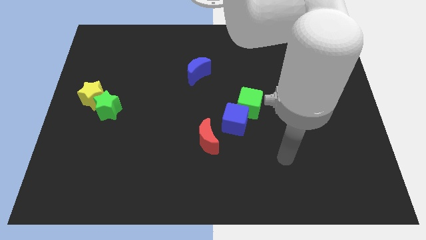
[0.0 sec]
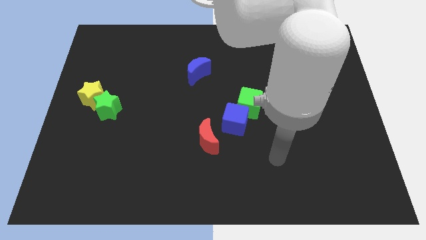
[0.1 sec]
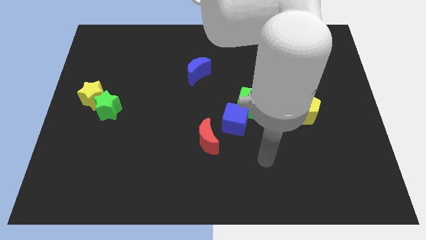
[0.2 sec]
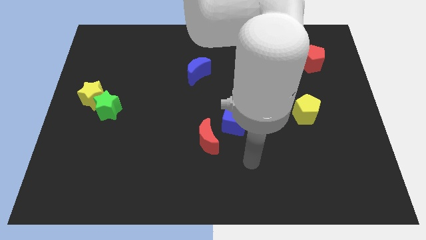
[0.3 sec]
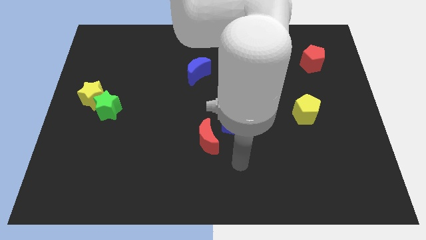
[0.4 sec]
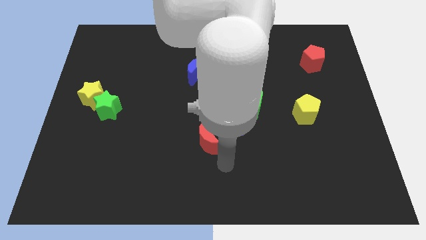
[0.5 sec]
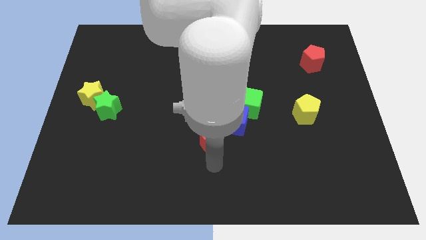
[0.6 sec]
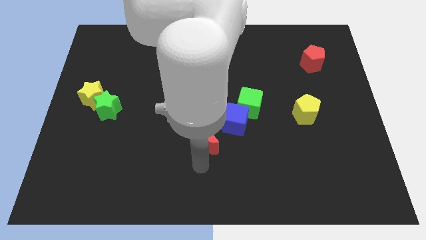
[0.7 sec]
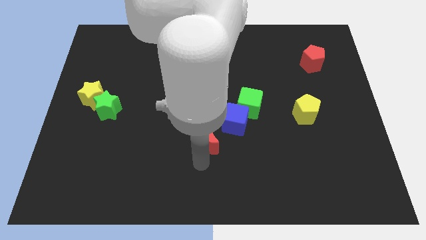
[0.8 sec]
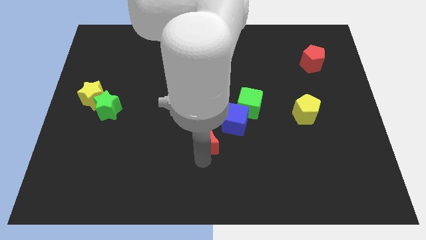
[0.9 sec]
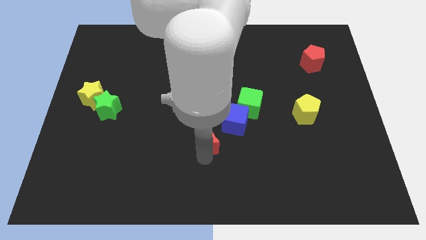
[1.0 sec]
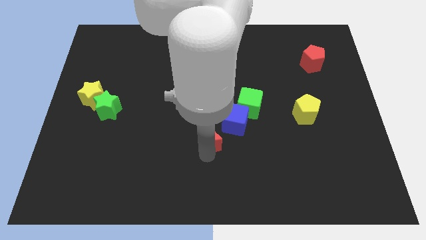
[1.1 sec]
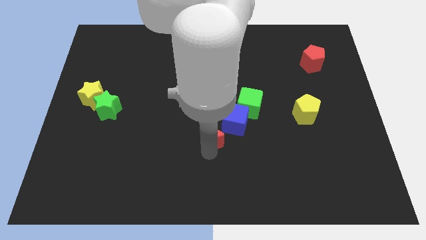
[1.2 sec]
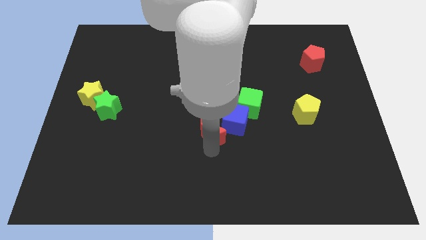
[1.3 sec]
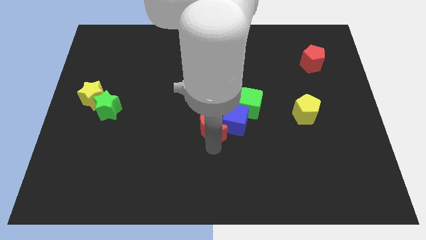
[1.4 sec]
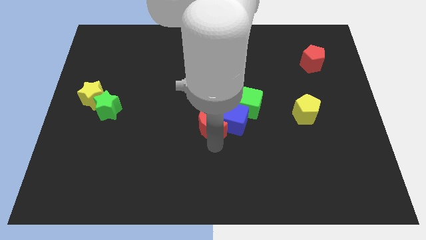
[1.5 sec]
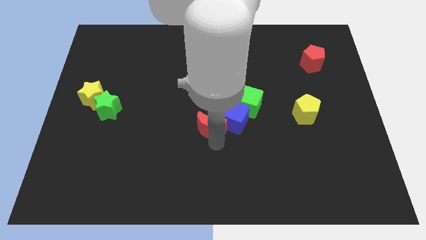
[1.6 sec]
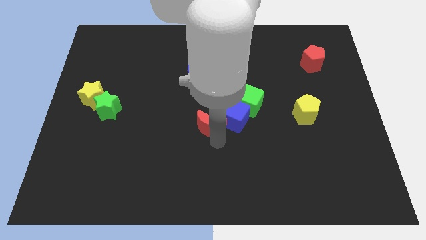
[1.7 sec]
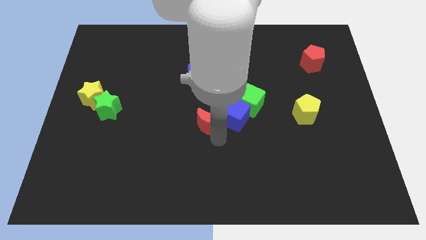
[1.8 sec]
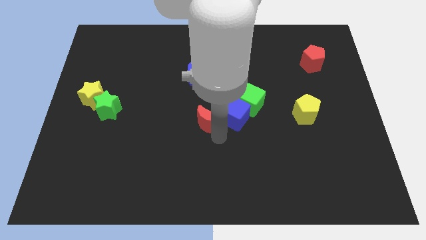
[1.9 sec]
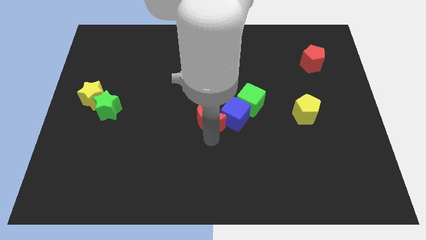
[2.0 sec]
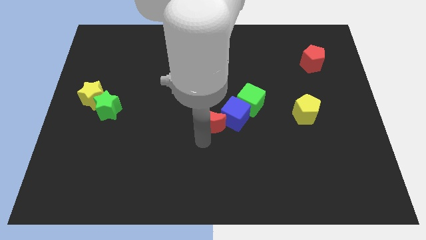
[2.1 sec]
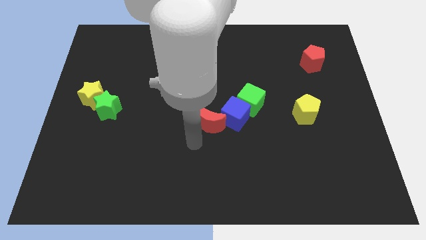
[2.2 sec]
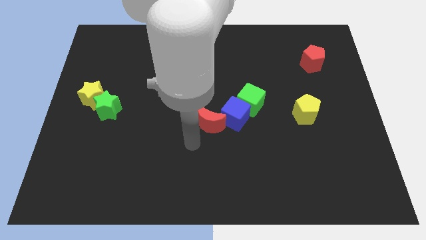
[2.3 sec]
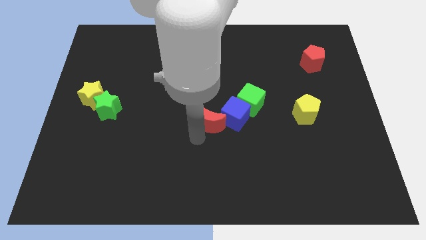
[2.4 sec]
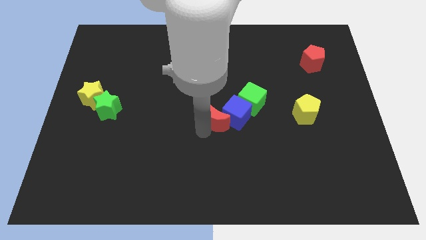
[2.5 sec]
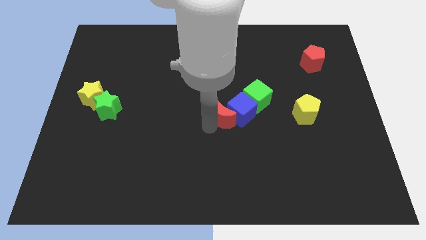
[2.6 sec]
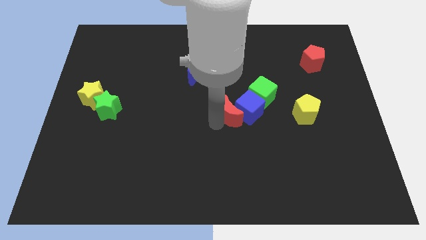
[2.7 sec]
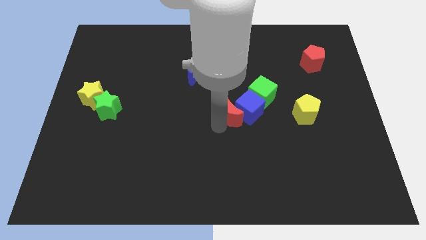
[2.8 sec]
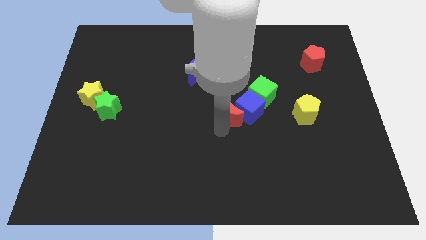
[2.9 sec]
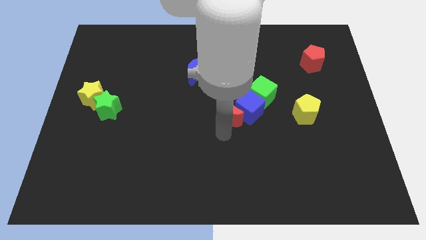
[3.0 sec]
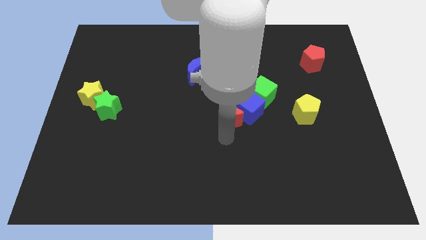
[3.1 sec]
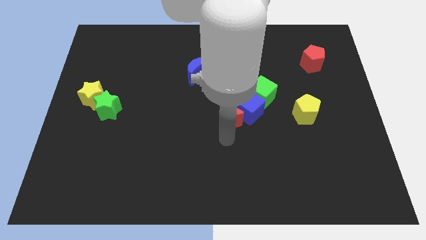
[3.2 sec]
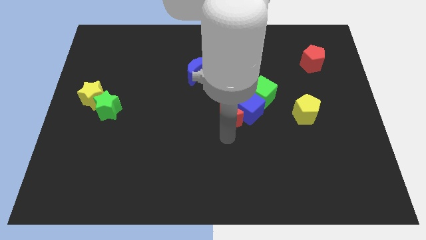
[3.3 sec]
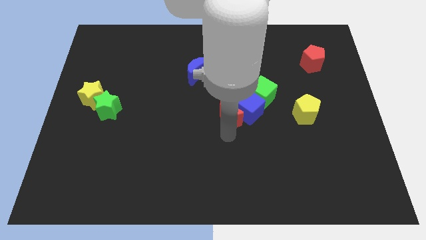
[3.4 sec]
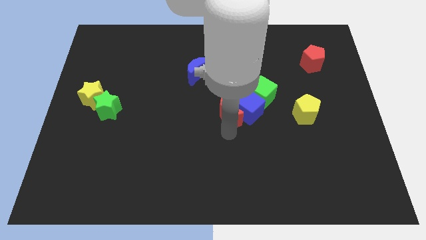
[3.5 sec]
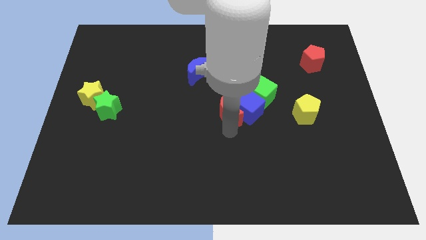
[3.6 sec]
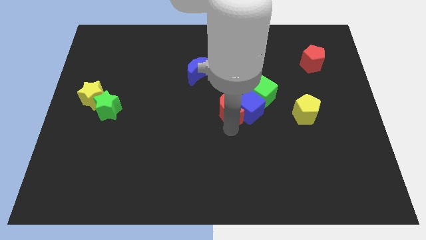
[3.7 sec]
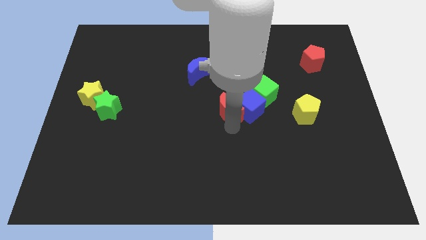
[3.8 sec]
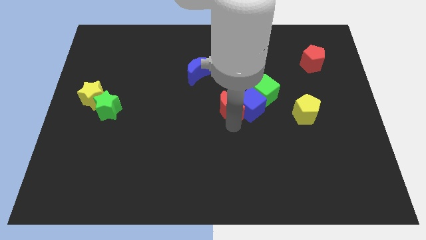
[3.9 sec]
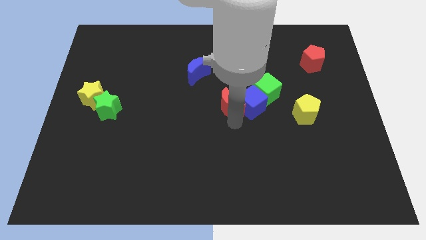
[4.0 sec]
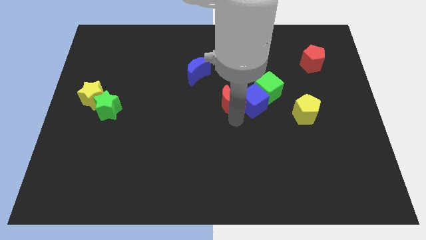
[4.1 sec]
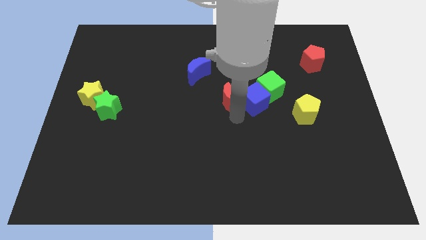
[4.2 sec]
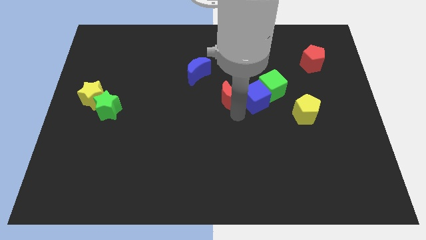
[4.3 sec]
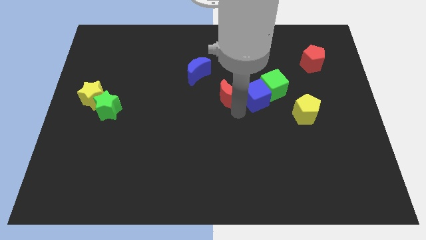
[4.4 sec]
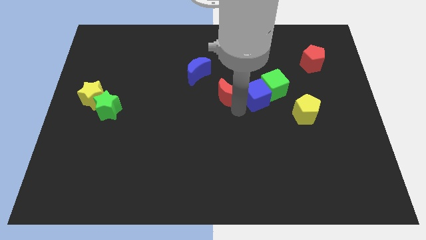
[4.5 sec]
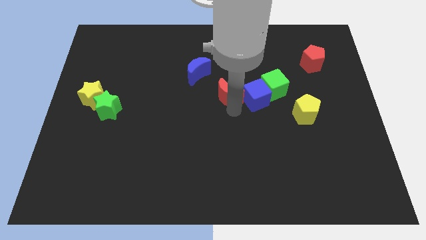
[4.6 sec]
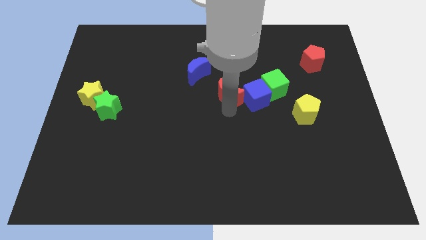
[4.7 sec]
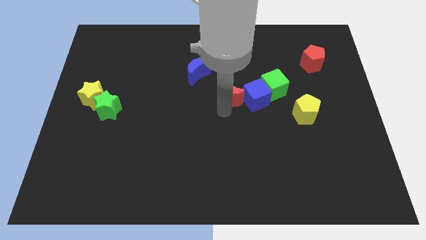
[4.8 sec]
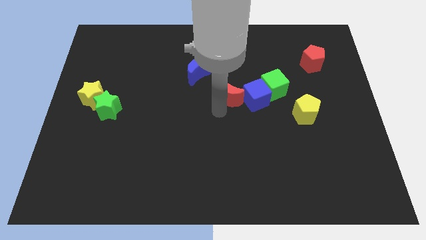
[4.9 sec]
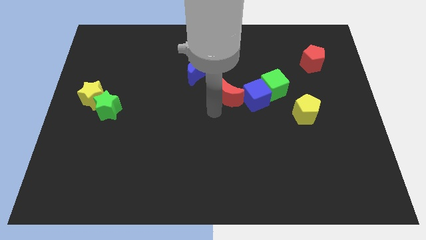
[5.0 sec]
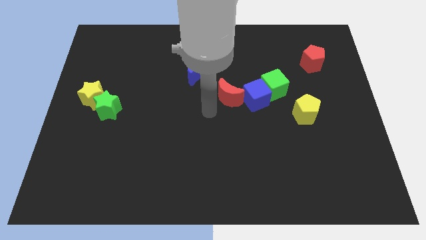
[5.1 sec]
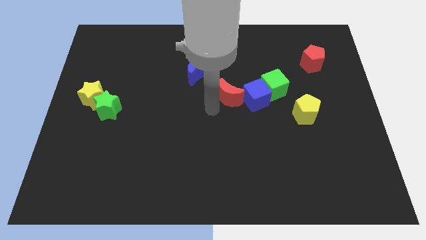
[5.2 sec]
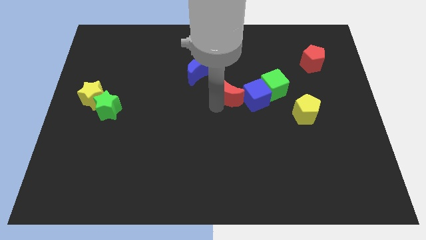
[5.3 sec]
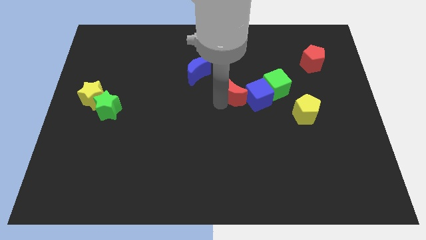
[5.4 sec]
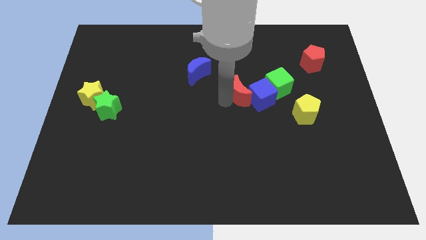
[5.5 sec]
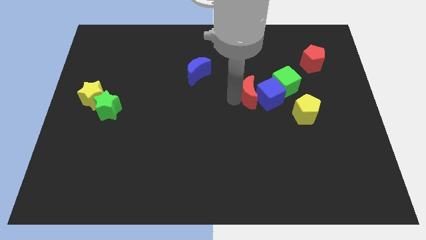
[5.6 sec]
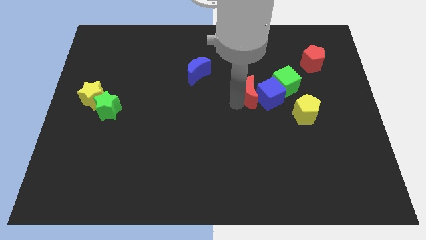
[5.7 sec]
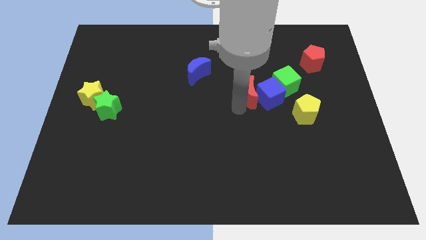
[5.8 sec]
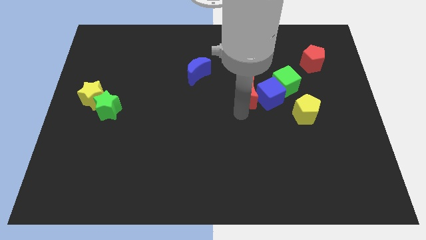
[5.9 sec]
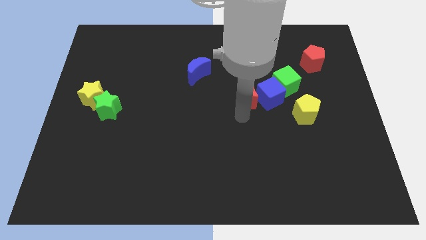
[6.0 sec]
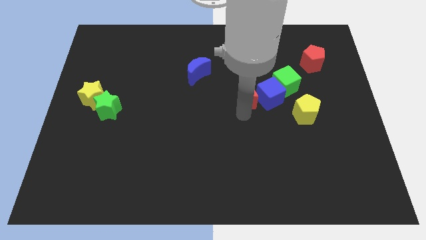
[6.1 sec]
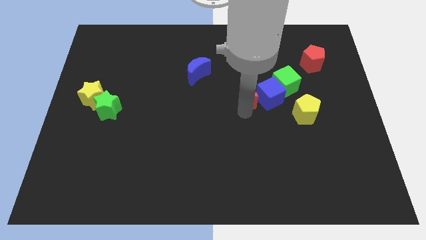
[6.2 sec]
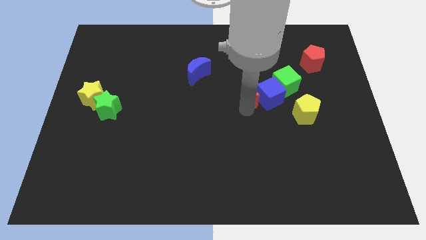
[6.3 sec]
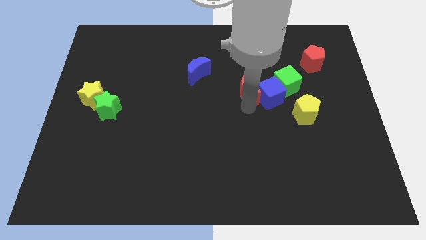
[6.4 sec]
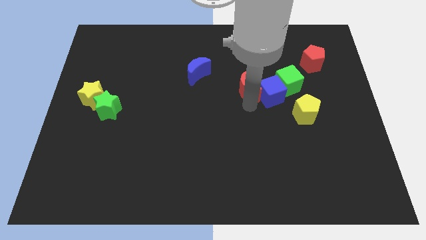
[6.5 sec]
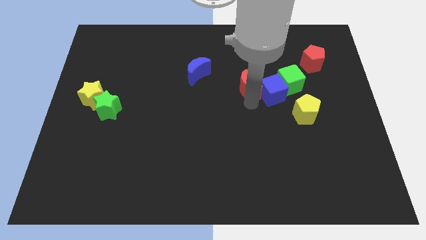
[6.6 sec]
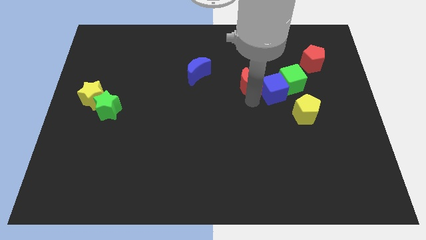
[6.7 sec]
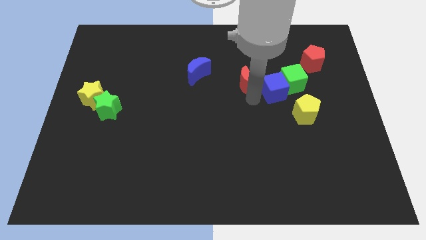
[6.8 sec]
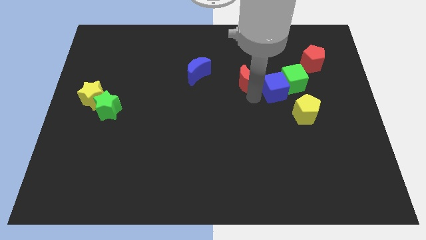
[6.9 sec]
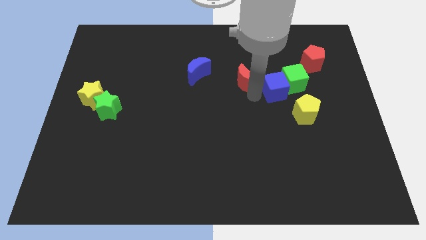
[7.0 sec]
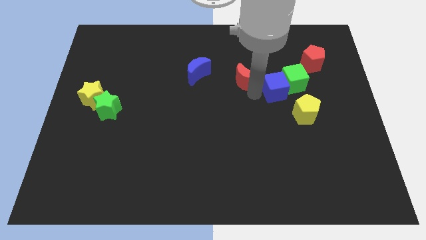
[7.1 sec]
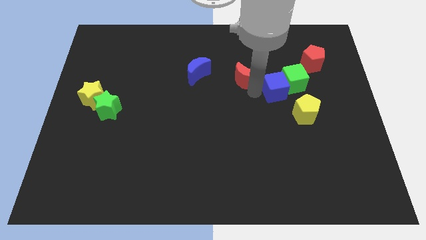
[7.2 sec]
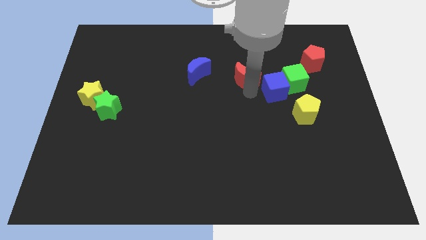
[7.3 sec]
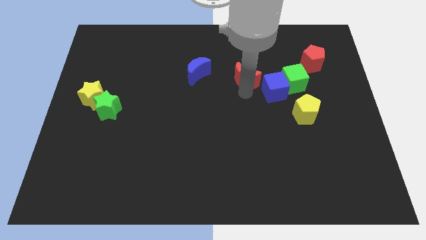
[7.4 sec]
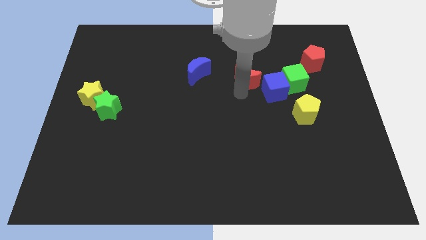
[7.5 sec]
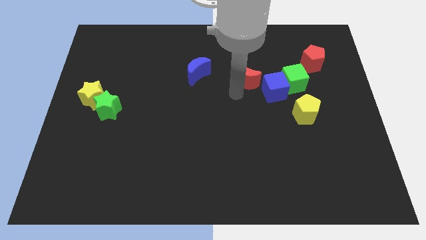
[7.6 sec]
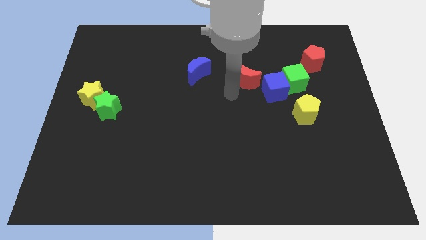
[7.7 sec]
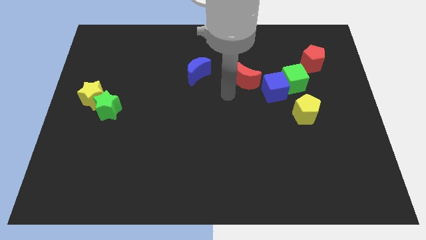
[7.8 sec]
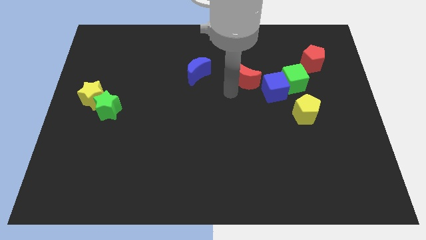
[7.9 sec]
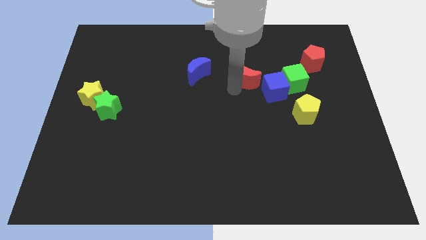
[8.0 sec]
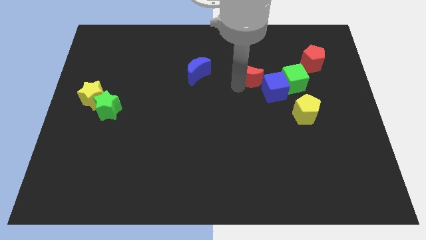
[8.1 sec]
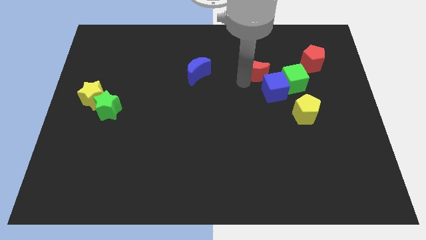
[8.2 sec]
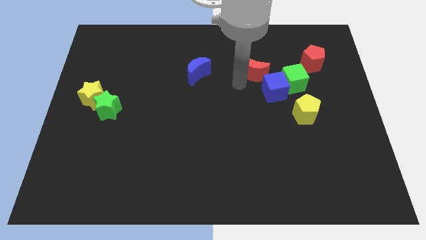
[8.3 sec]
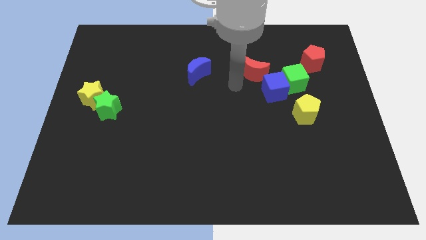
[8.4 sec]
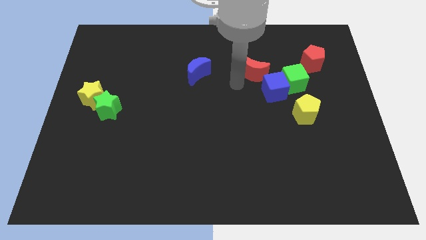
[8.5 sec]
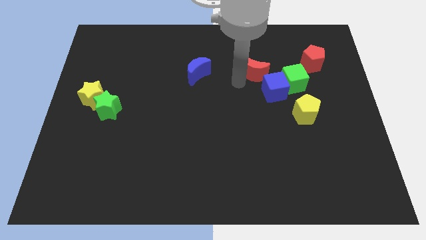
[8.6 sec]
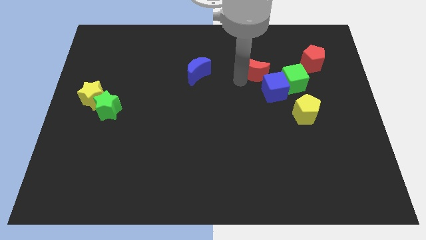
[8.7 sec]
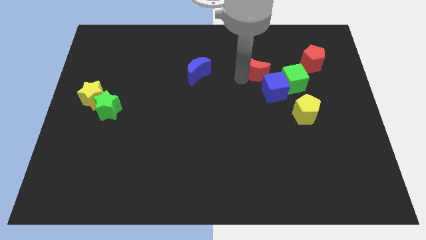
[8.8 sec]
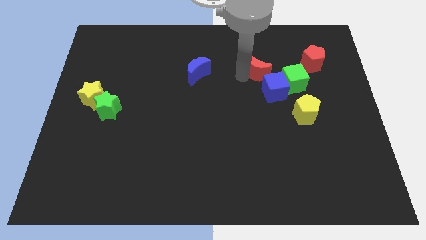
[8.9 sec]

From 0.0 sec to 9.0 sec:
put the red moon to the left of the red pentagon
